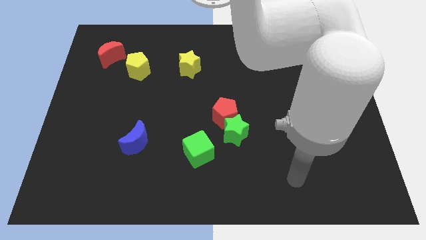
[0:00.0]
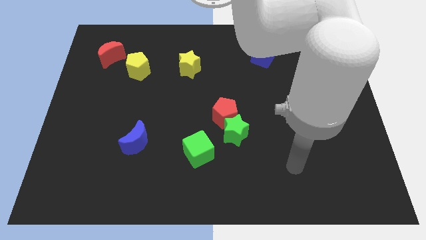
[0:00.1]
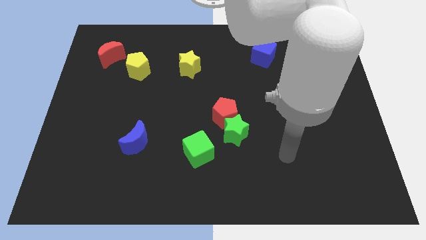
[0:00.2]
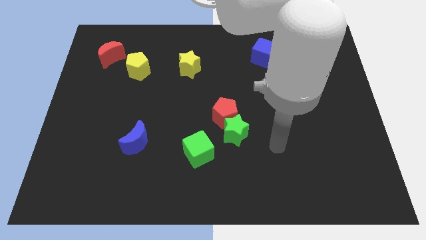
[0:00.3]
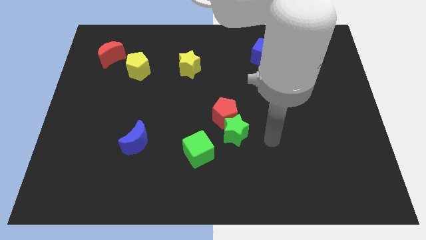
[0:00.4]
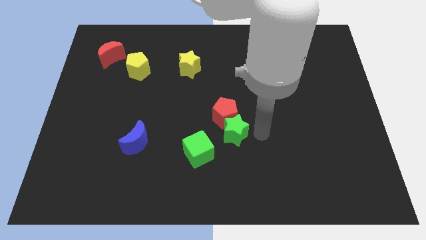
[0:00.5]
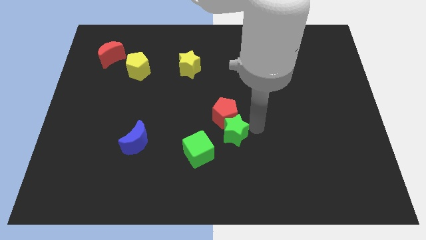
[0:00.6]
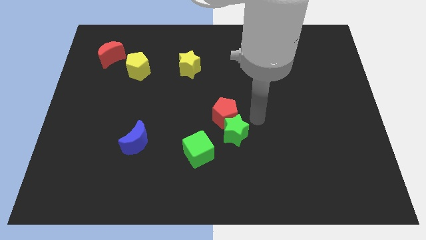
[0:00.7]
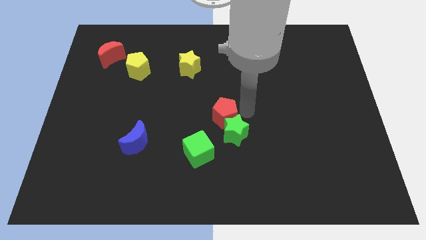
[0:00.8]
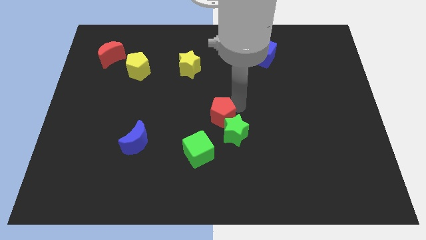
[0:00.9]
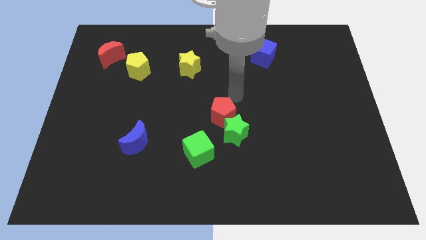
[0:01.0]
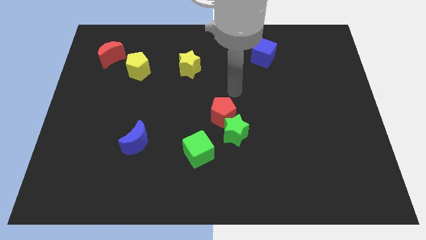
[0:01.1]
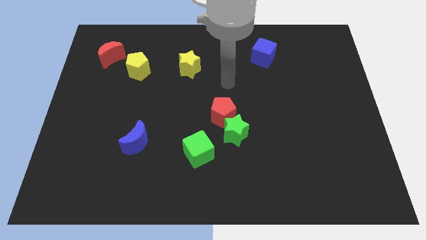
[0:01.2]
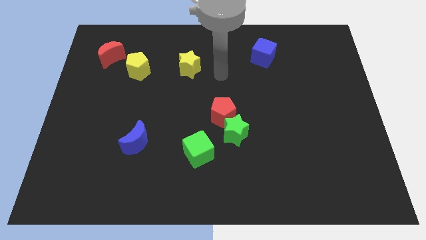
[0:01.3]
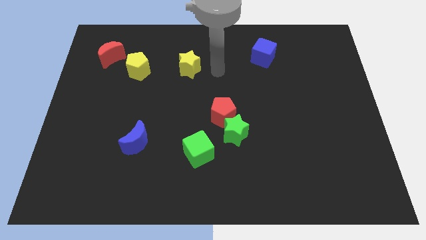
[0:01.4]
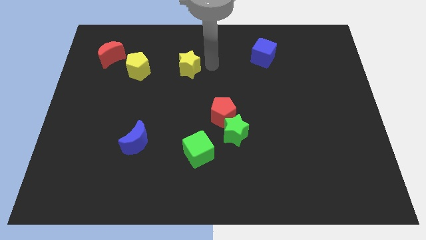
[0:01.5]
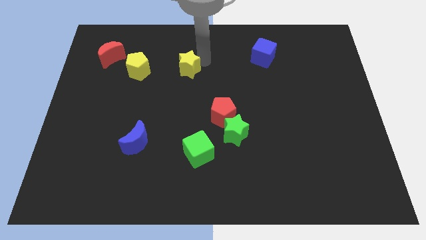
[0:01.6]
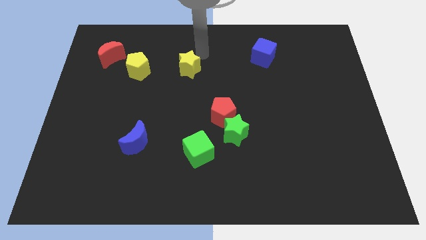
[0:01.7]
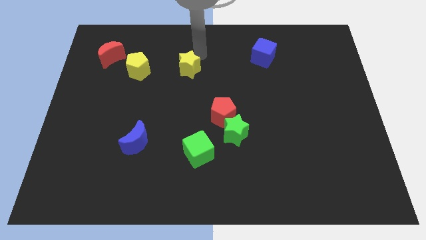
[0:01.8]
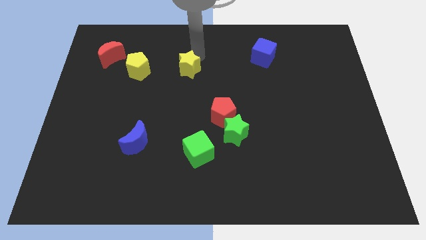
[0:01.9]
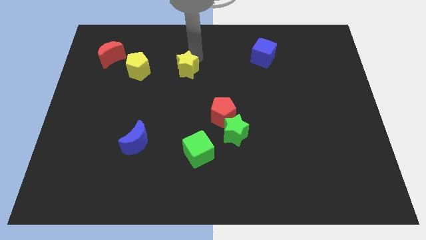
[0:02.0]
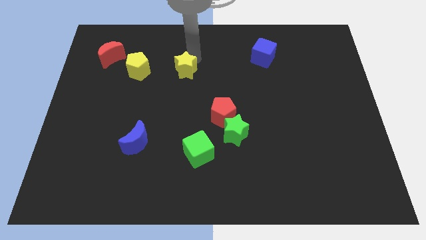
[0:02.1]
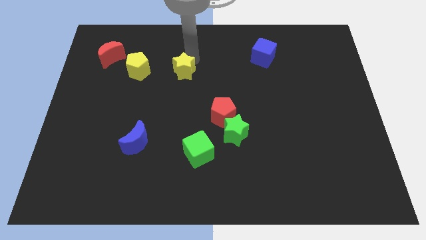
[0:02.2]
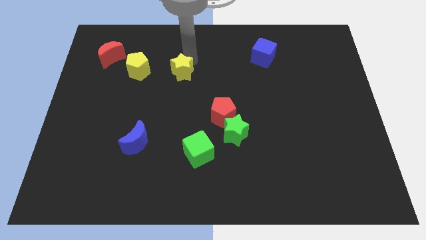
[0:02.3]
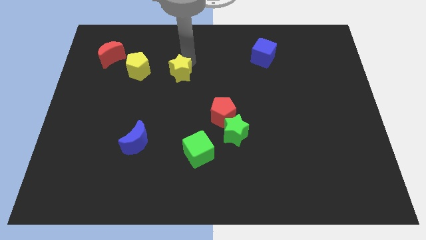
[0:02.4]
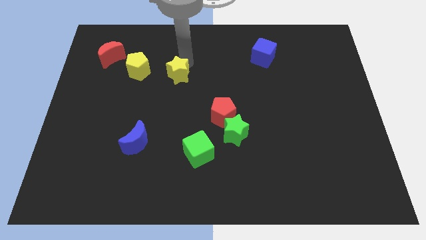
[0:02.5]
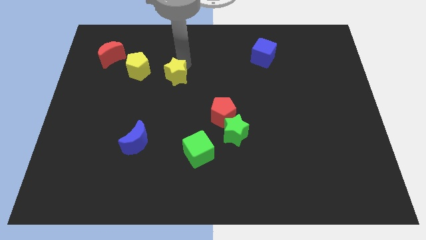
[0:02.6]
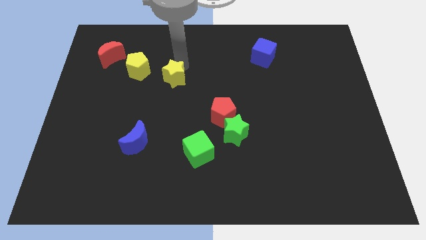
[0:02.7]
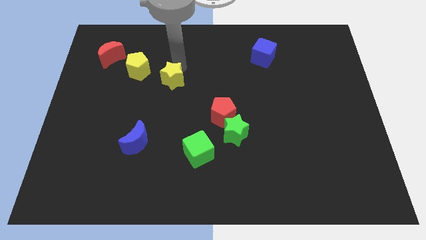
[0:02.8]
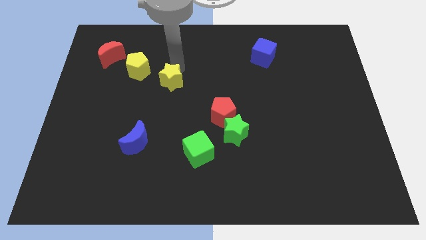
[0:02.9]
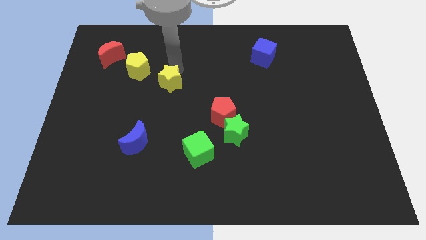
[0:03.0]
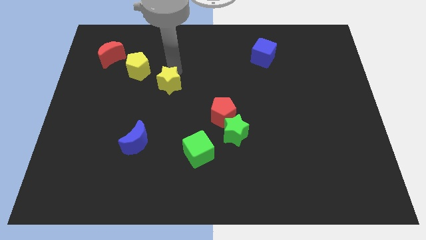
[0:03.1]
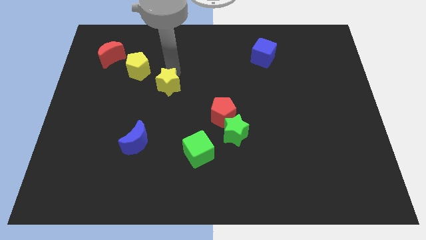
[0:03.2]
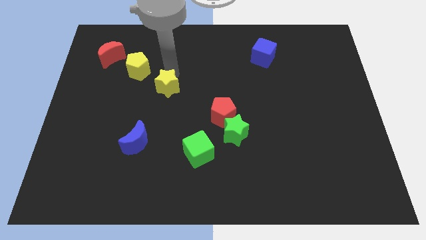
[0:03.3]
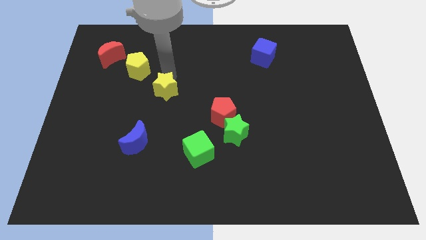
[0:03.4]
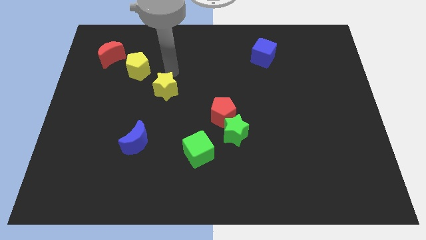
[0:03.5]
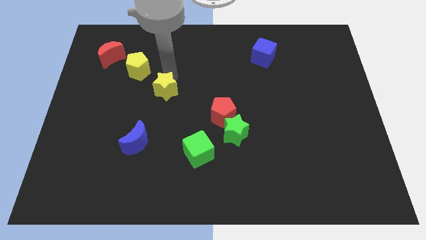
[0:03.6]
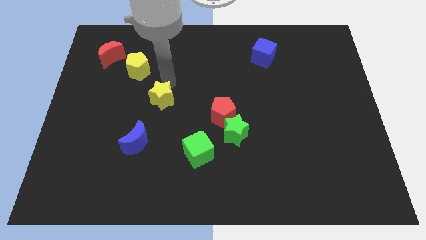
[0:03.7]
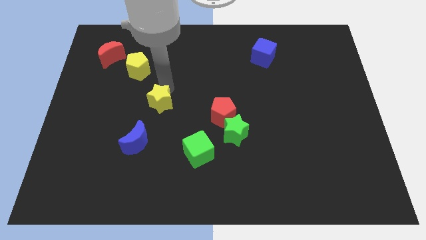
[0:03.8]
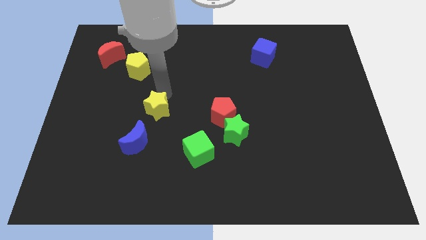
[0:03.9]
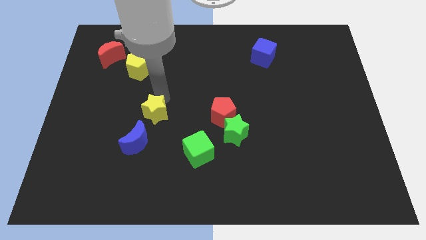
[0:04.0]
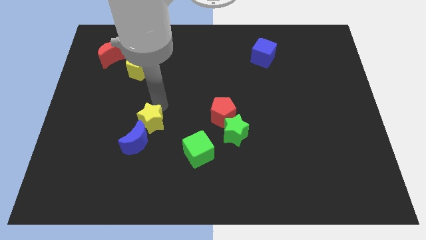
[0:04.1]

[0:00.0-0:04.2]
push the yellow star next to the blue moon

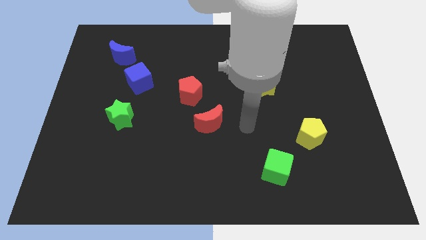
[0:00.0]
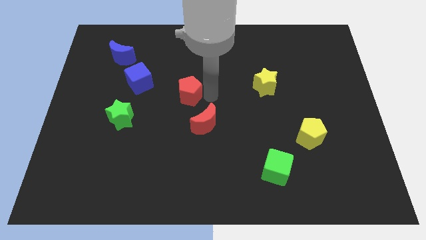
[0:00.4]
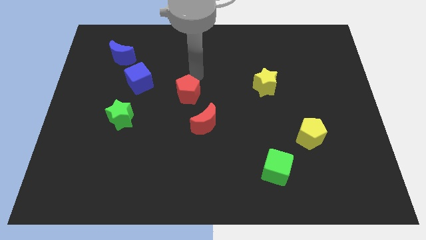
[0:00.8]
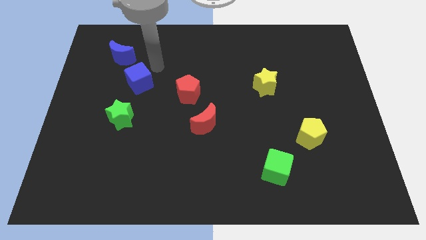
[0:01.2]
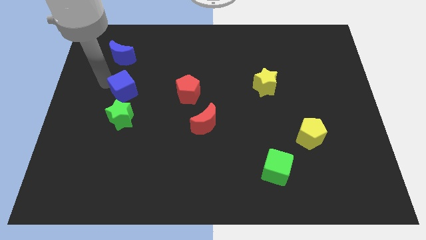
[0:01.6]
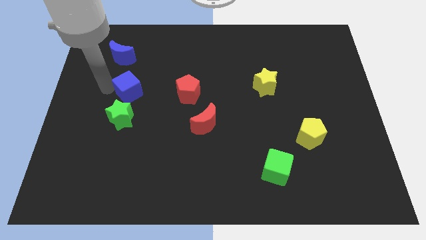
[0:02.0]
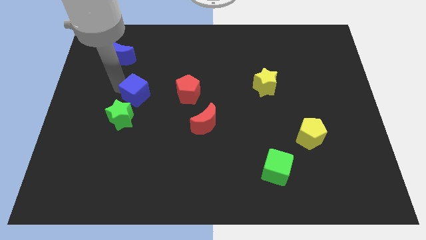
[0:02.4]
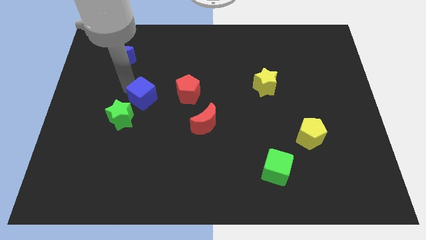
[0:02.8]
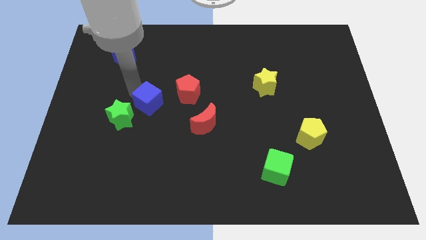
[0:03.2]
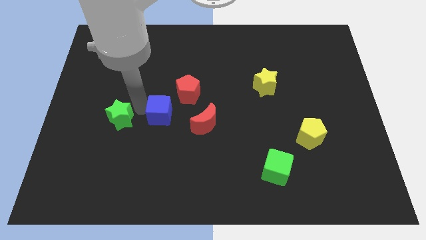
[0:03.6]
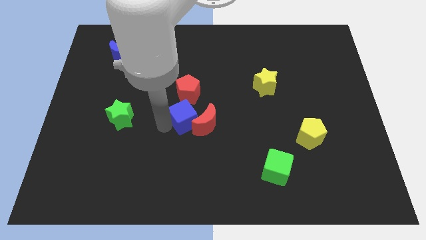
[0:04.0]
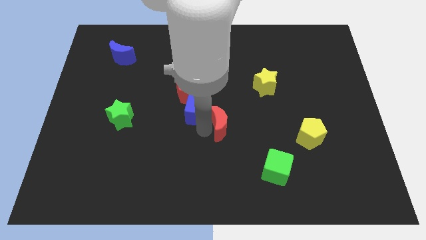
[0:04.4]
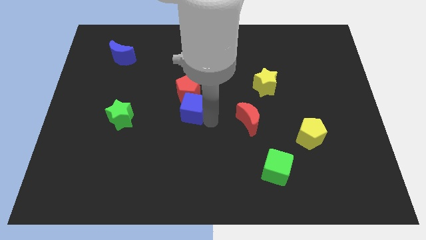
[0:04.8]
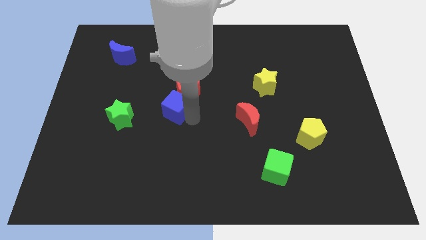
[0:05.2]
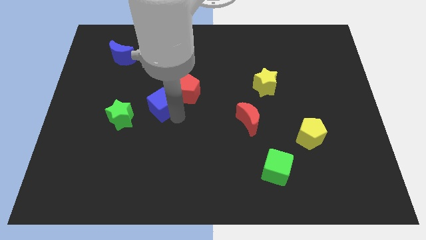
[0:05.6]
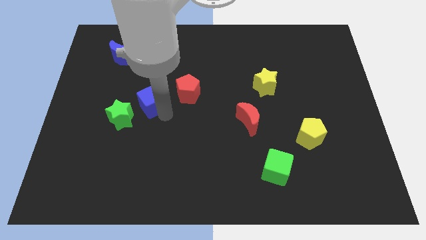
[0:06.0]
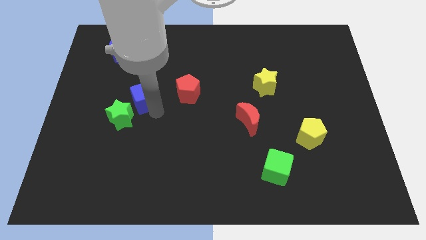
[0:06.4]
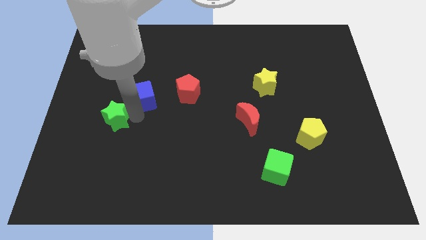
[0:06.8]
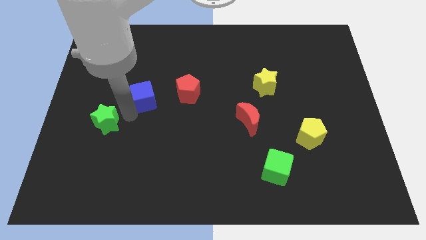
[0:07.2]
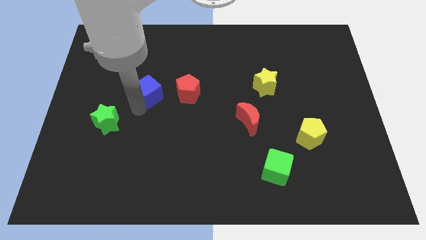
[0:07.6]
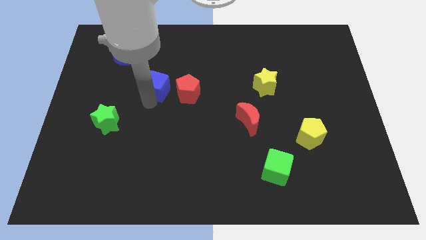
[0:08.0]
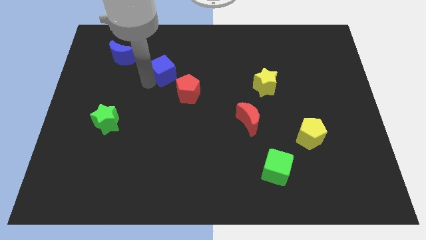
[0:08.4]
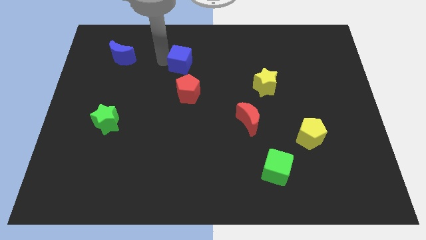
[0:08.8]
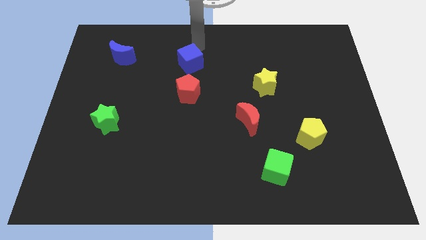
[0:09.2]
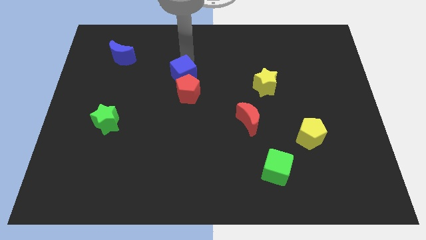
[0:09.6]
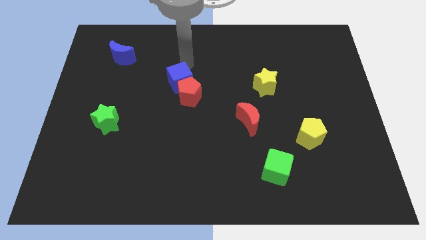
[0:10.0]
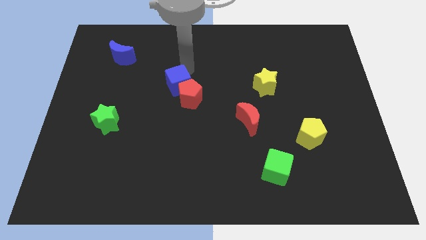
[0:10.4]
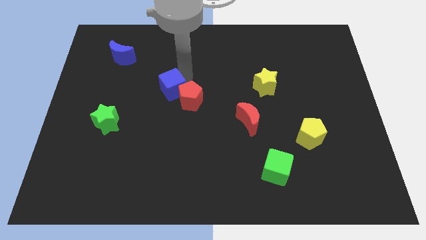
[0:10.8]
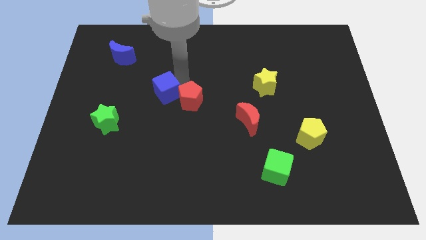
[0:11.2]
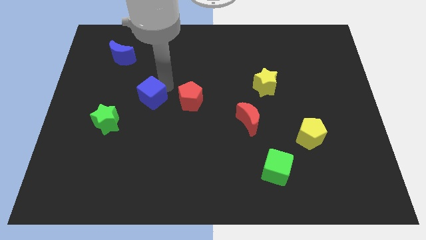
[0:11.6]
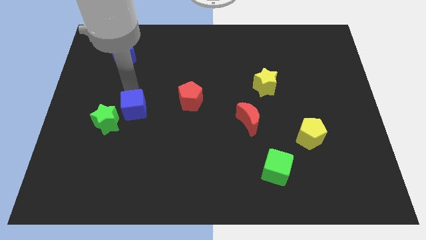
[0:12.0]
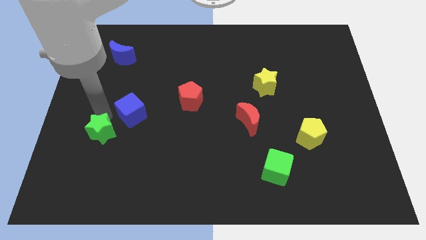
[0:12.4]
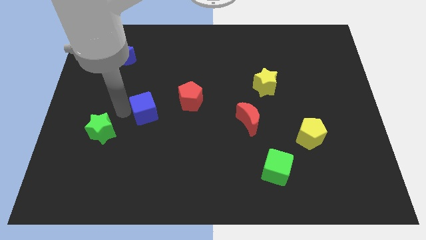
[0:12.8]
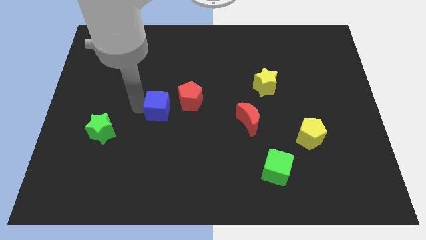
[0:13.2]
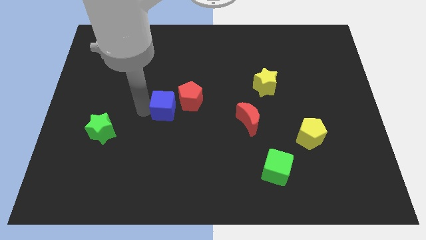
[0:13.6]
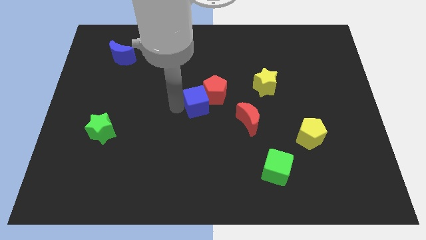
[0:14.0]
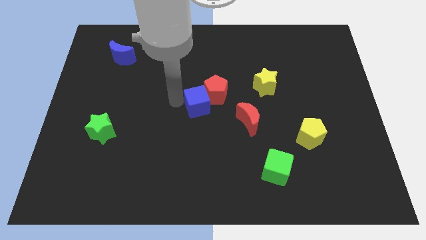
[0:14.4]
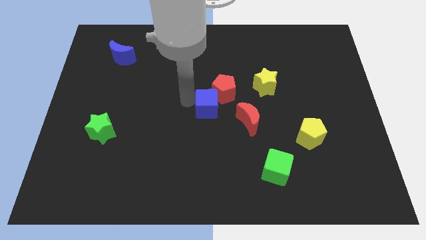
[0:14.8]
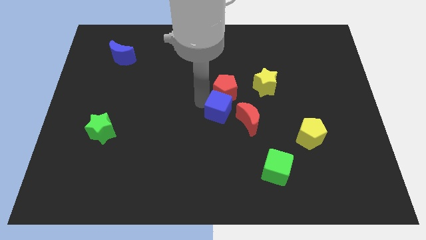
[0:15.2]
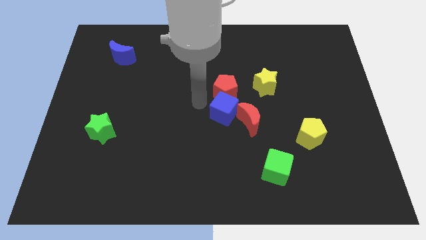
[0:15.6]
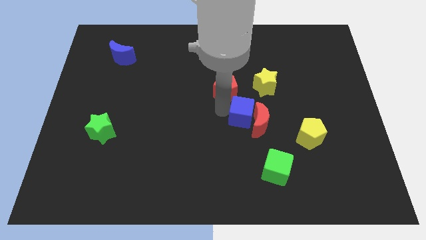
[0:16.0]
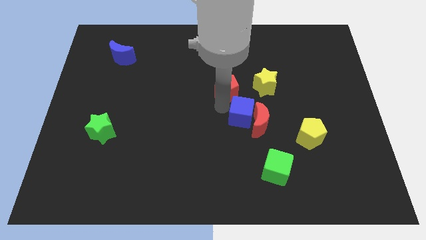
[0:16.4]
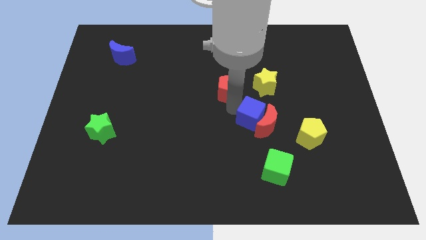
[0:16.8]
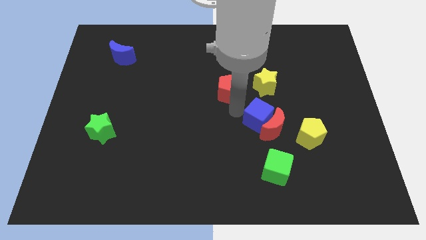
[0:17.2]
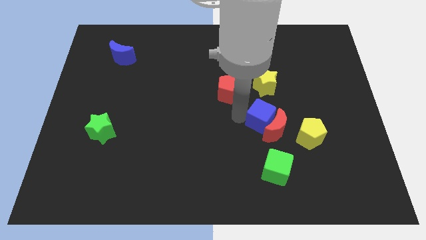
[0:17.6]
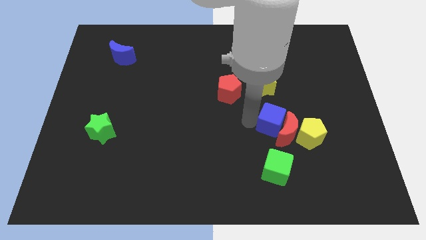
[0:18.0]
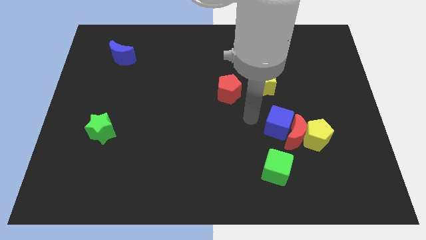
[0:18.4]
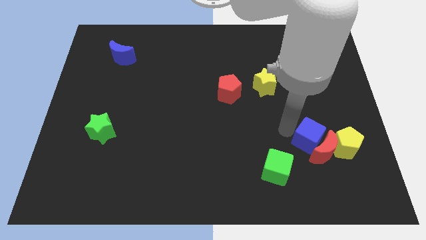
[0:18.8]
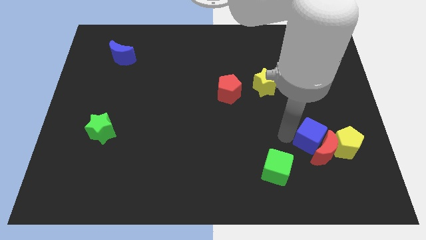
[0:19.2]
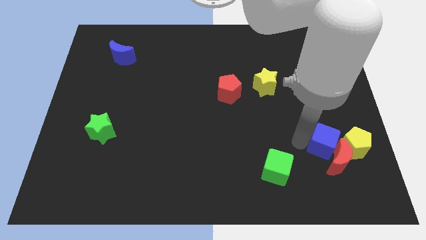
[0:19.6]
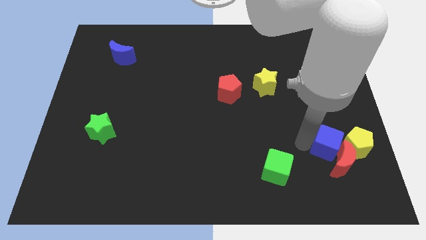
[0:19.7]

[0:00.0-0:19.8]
move the blue cube next to the yellow pentagon
